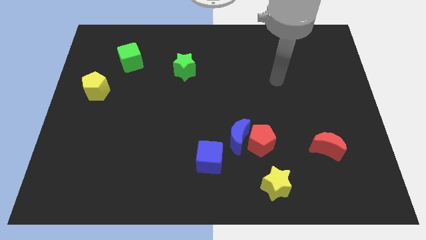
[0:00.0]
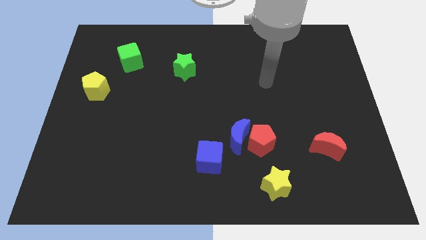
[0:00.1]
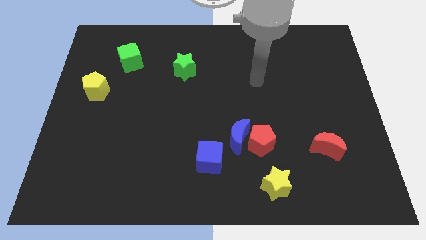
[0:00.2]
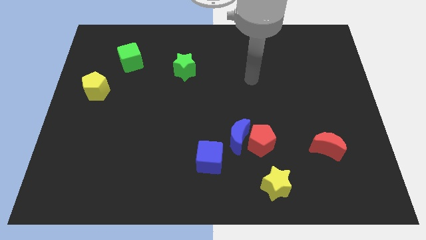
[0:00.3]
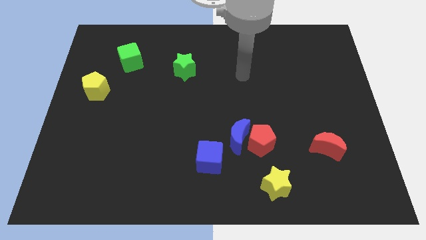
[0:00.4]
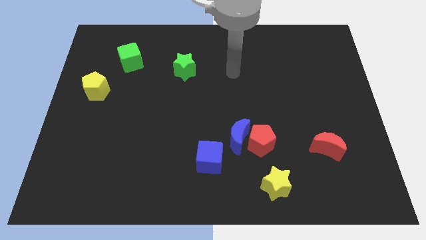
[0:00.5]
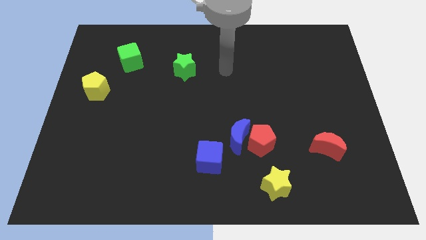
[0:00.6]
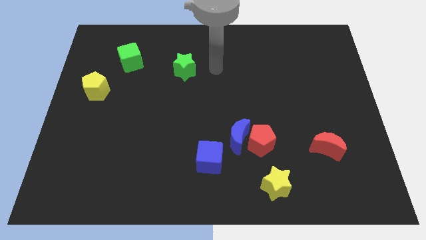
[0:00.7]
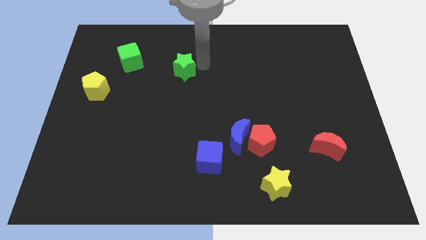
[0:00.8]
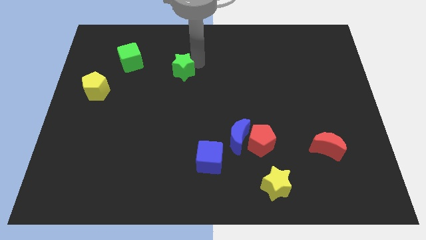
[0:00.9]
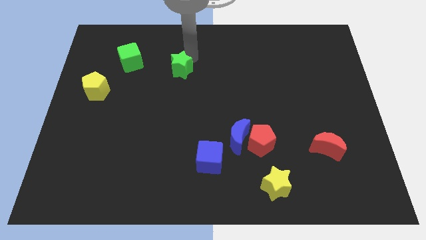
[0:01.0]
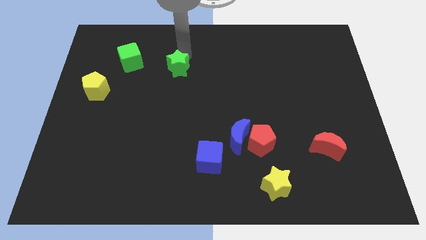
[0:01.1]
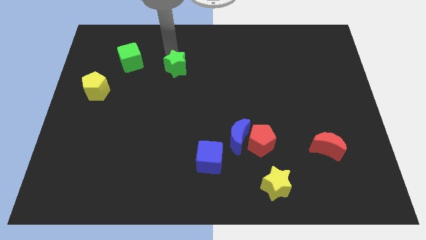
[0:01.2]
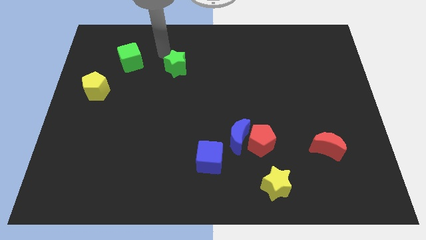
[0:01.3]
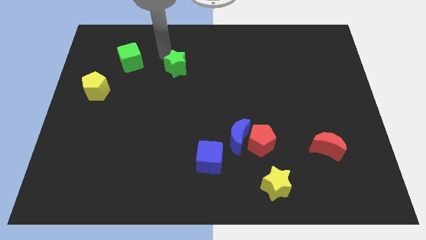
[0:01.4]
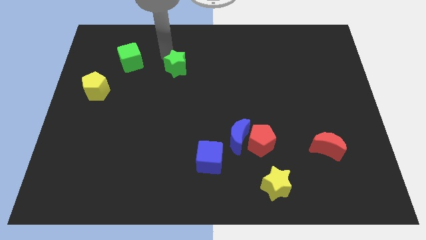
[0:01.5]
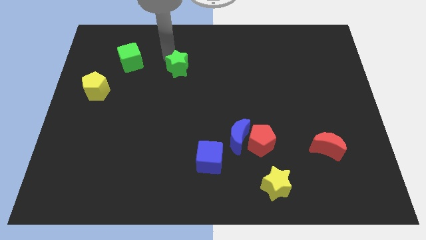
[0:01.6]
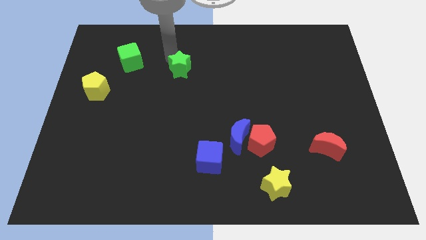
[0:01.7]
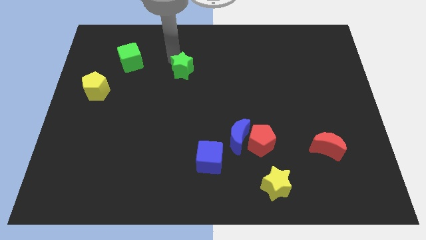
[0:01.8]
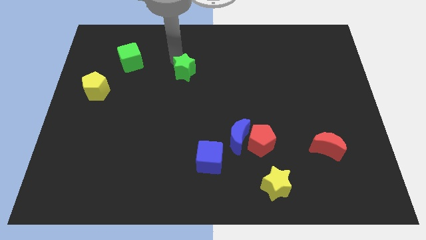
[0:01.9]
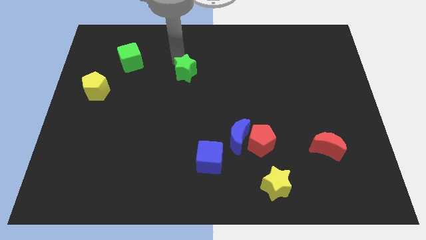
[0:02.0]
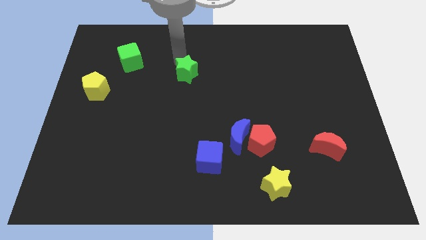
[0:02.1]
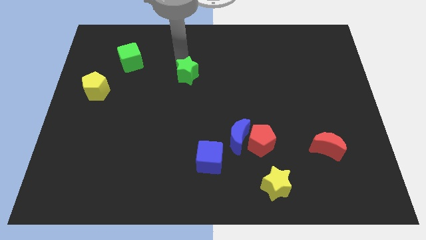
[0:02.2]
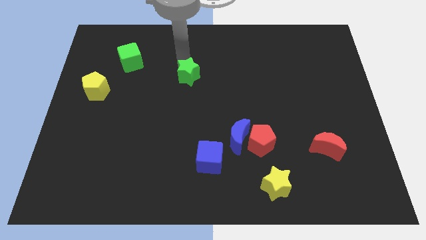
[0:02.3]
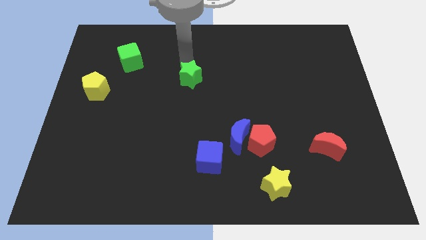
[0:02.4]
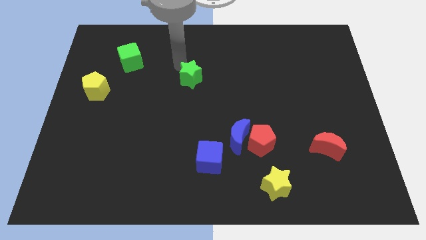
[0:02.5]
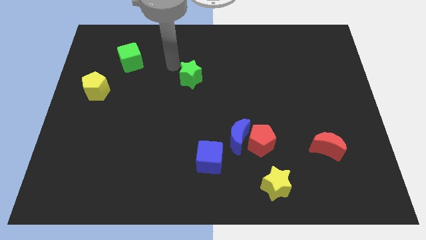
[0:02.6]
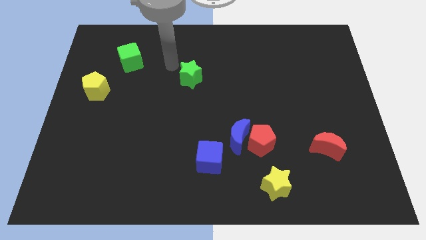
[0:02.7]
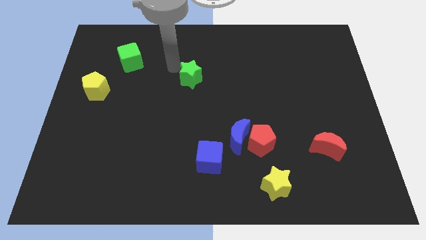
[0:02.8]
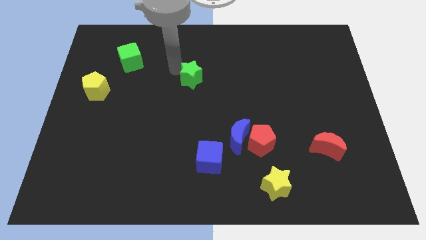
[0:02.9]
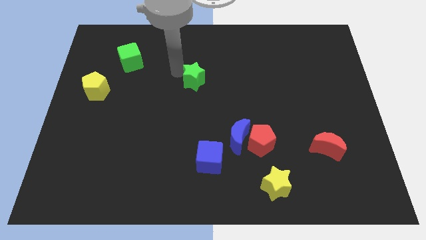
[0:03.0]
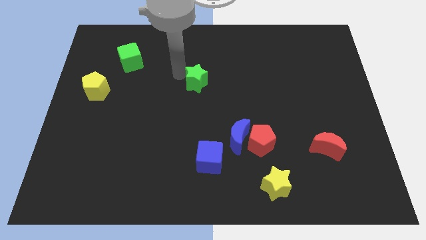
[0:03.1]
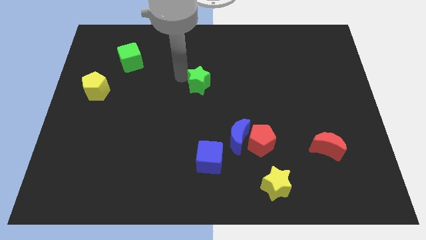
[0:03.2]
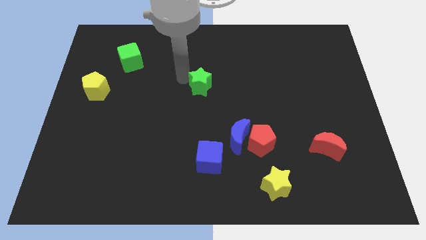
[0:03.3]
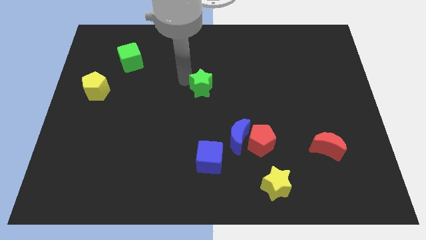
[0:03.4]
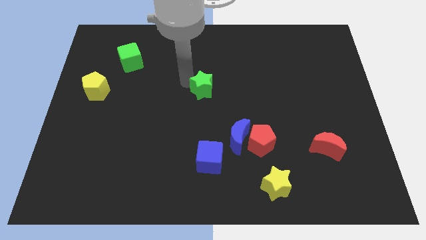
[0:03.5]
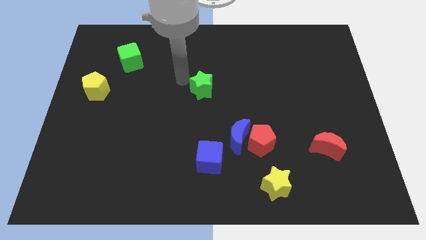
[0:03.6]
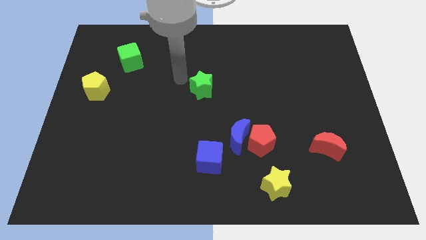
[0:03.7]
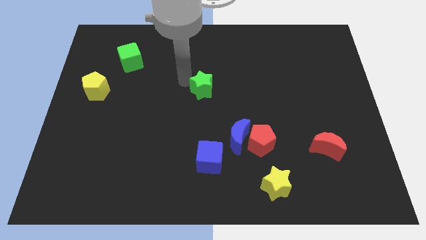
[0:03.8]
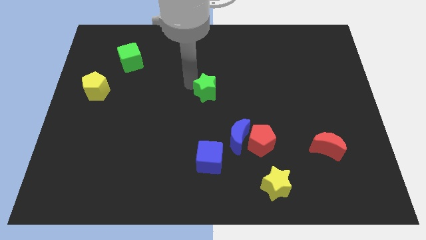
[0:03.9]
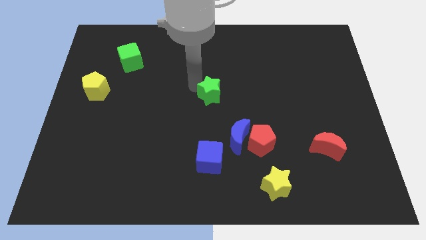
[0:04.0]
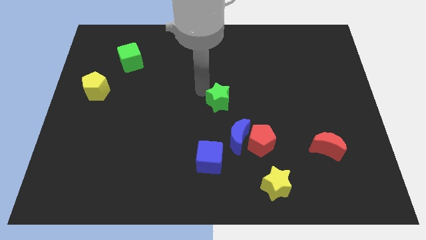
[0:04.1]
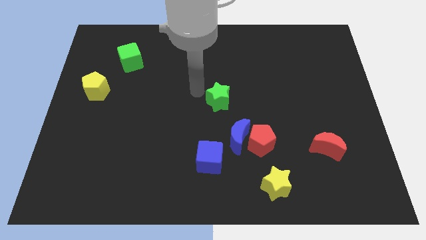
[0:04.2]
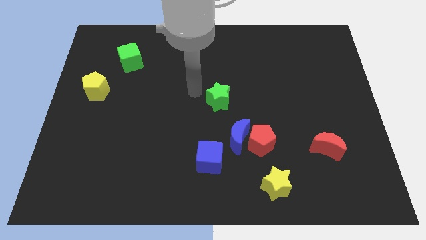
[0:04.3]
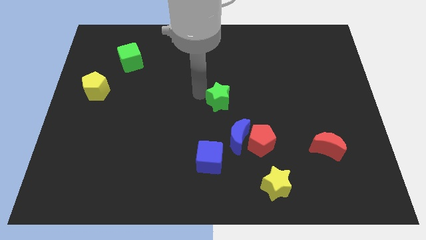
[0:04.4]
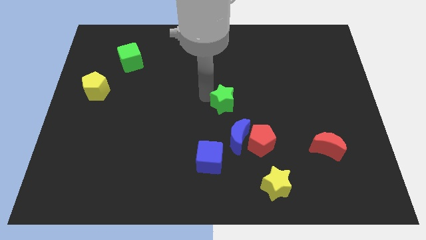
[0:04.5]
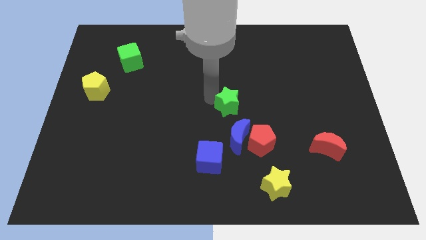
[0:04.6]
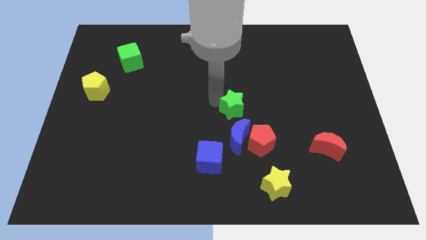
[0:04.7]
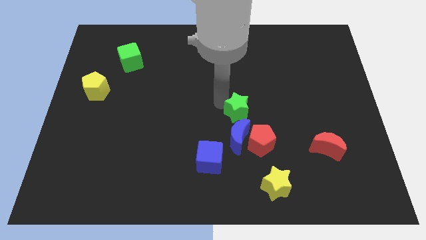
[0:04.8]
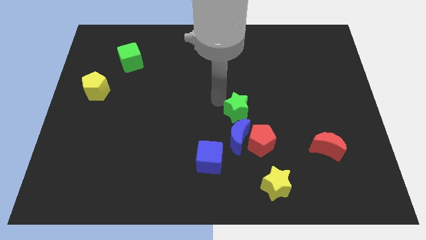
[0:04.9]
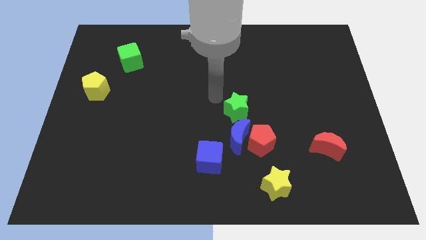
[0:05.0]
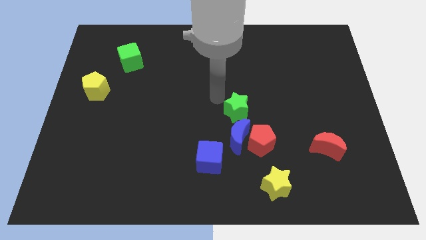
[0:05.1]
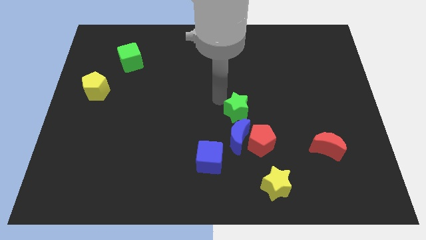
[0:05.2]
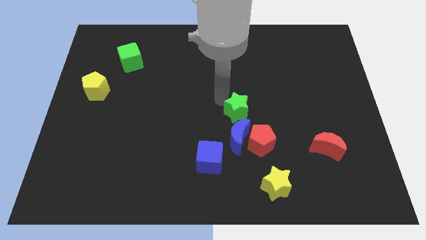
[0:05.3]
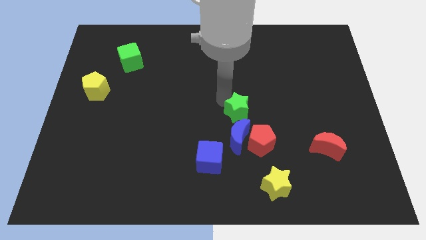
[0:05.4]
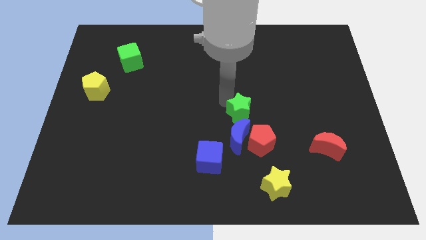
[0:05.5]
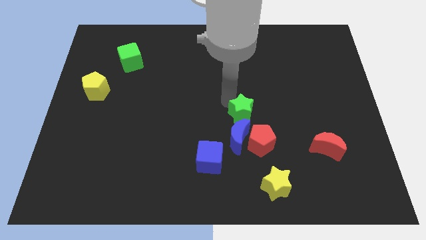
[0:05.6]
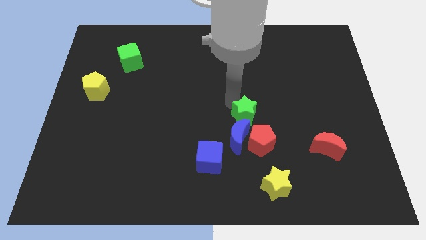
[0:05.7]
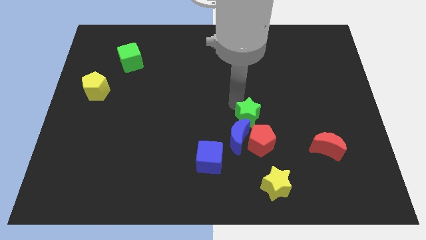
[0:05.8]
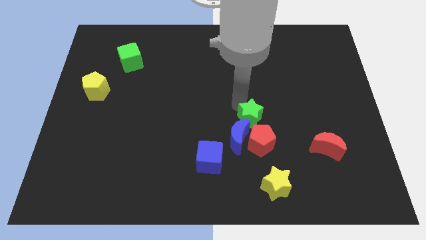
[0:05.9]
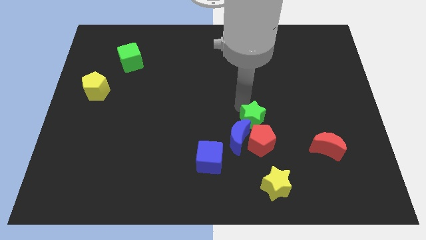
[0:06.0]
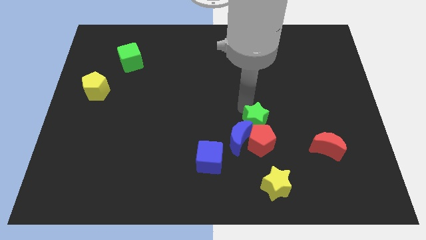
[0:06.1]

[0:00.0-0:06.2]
put the green star towards the red pentagon
